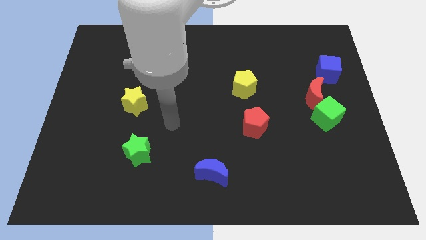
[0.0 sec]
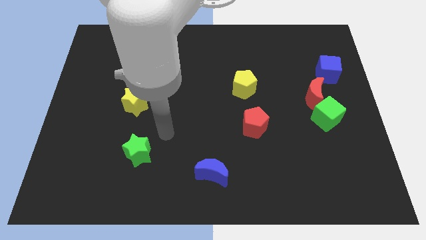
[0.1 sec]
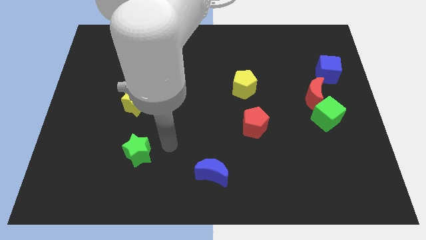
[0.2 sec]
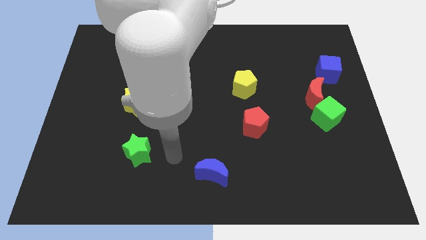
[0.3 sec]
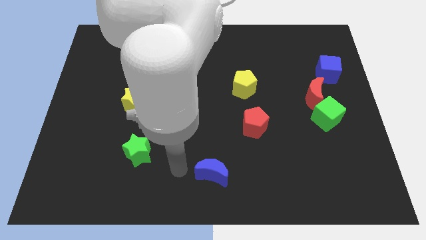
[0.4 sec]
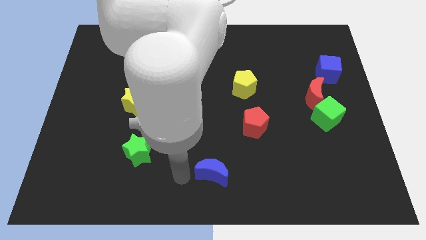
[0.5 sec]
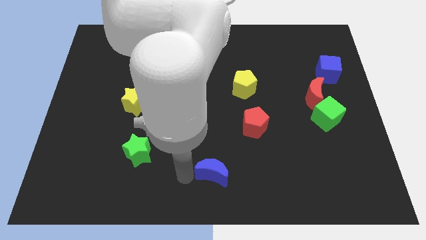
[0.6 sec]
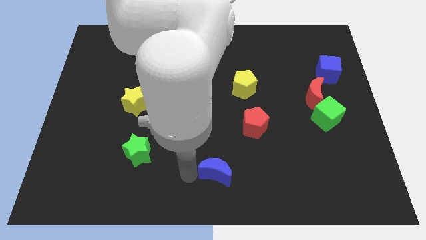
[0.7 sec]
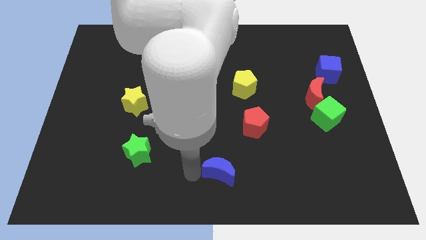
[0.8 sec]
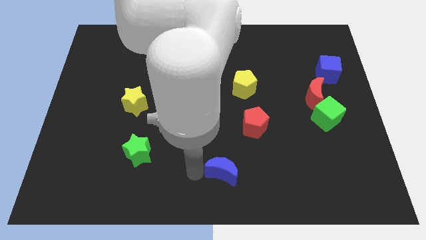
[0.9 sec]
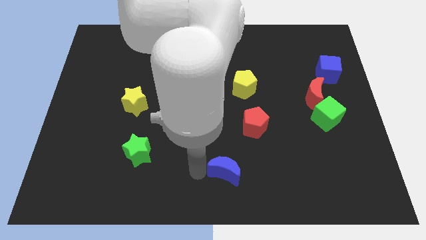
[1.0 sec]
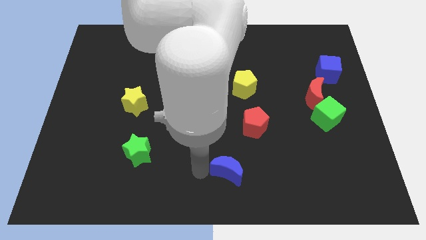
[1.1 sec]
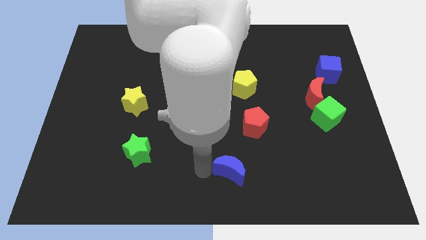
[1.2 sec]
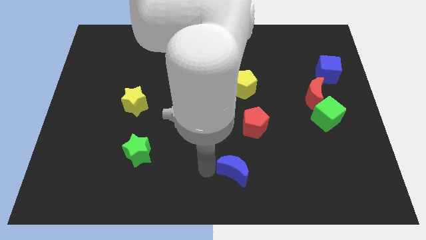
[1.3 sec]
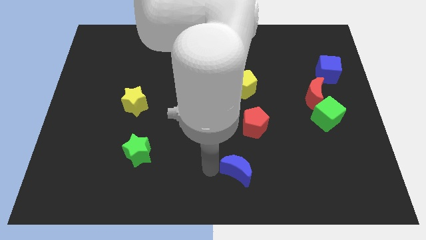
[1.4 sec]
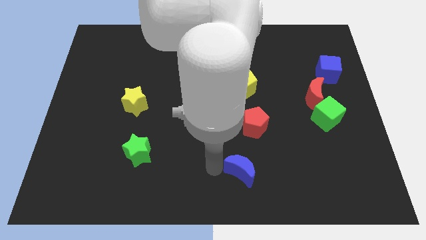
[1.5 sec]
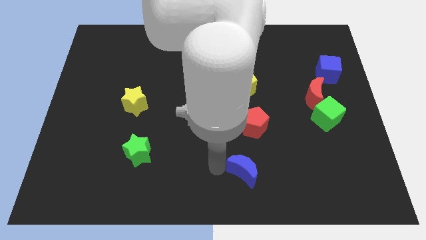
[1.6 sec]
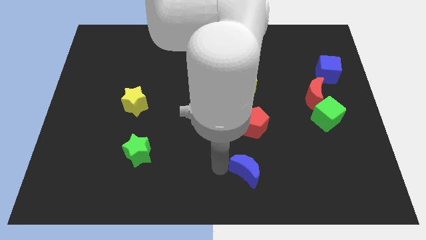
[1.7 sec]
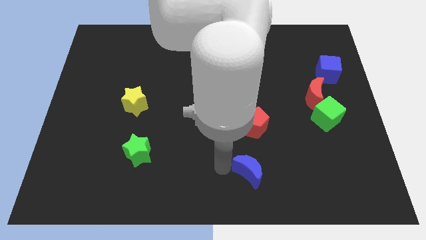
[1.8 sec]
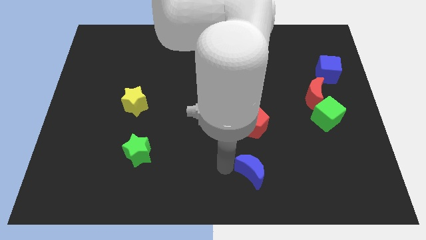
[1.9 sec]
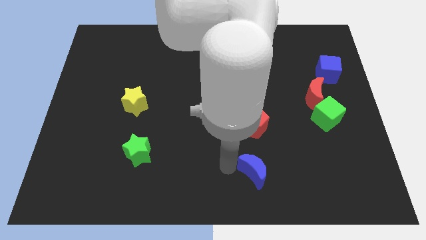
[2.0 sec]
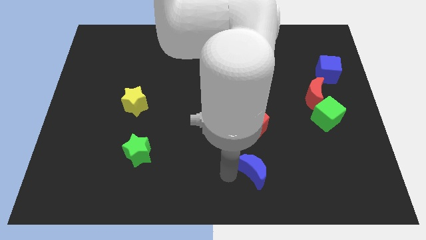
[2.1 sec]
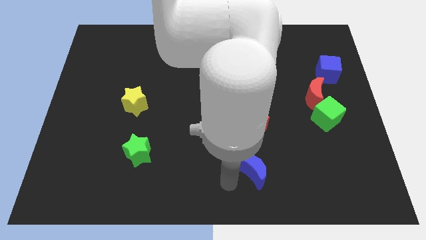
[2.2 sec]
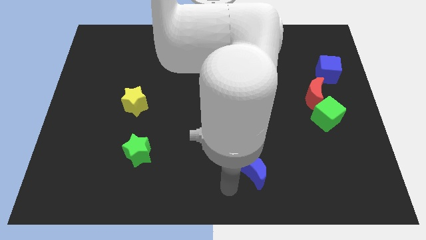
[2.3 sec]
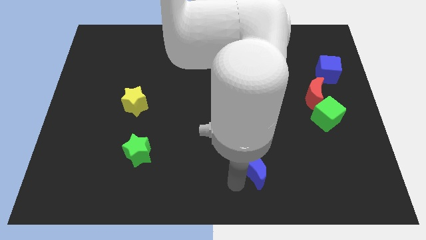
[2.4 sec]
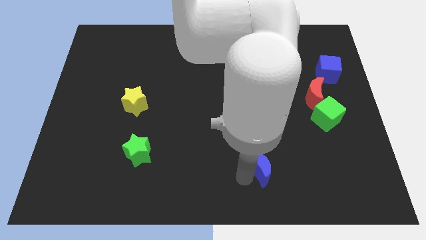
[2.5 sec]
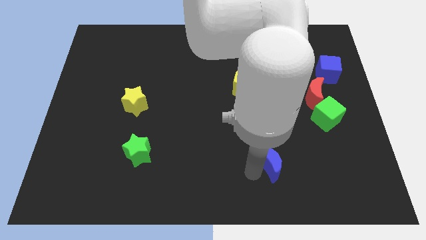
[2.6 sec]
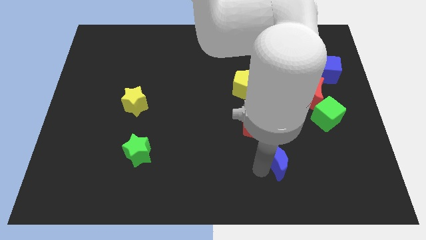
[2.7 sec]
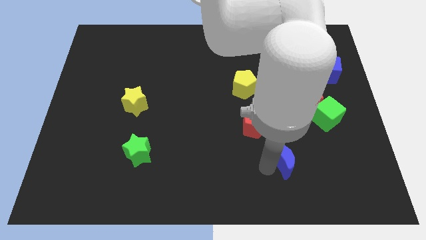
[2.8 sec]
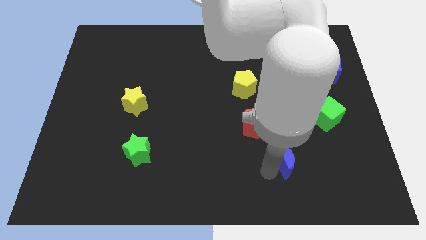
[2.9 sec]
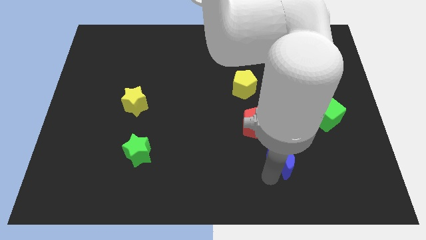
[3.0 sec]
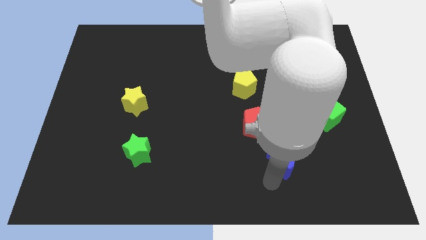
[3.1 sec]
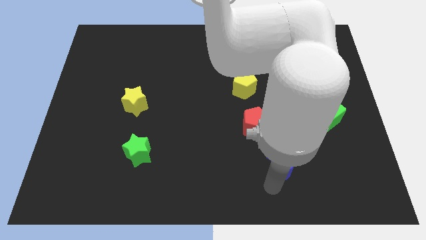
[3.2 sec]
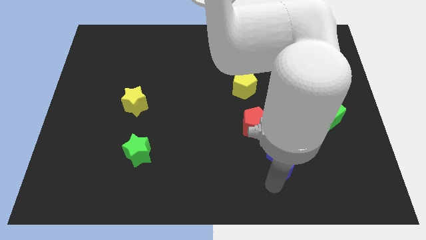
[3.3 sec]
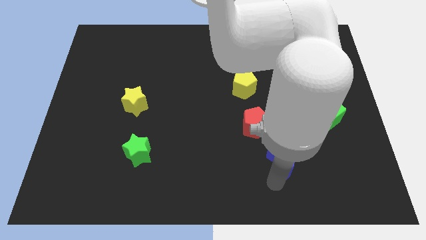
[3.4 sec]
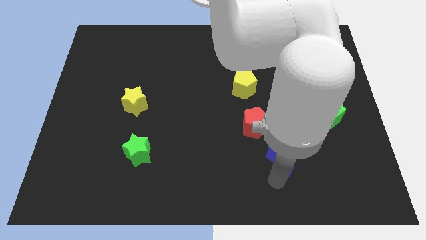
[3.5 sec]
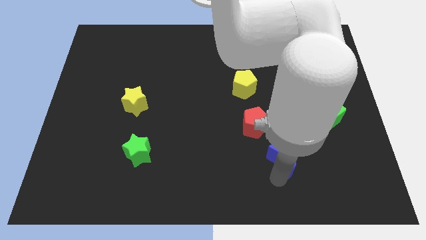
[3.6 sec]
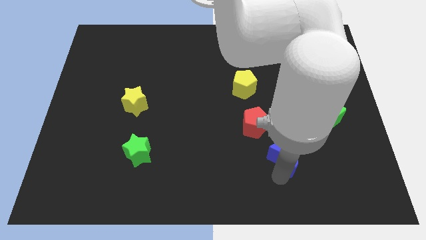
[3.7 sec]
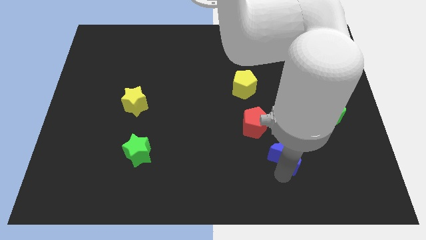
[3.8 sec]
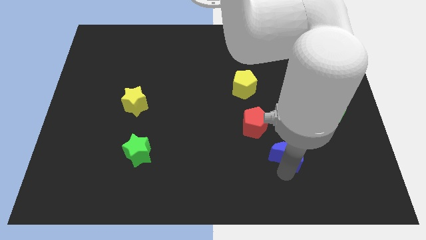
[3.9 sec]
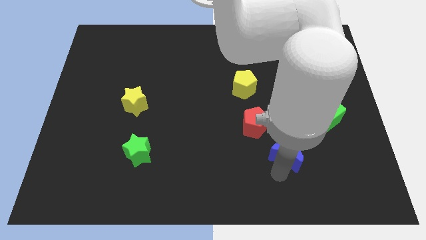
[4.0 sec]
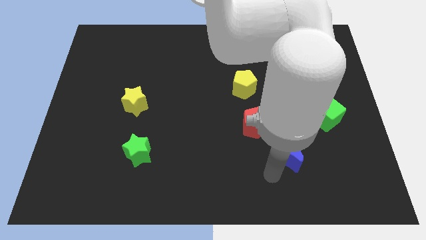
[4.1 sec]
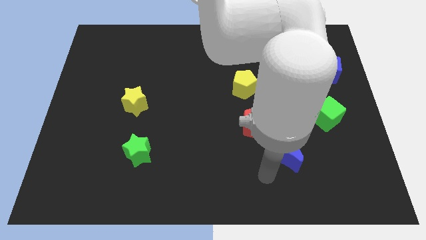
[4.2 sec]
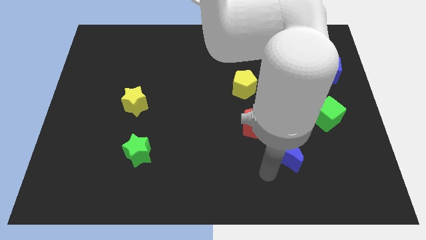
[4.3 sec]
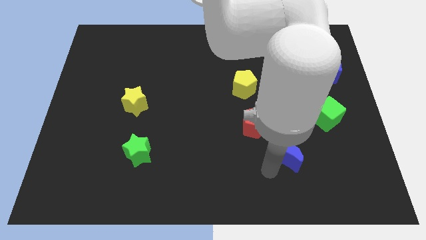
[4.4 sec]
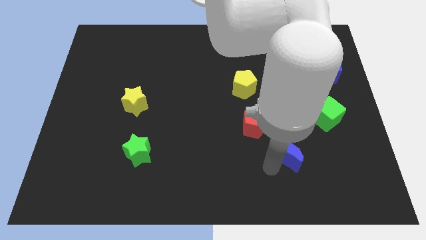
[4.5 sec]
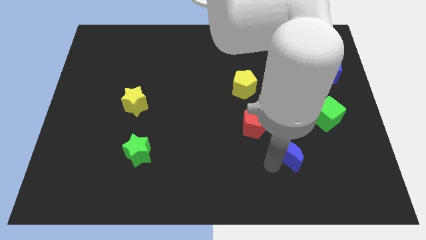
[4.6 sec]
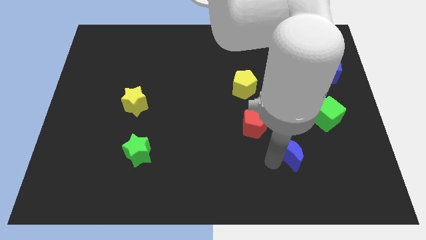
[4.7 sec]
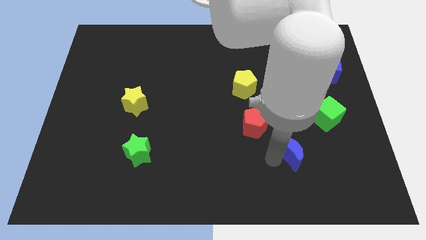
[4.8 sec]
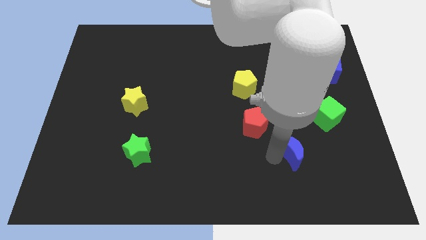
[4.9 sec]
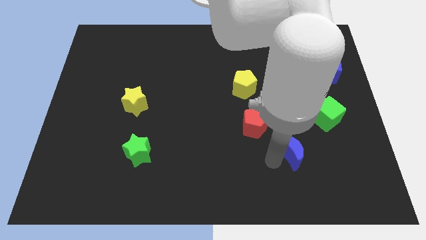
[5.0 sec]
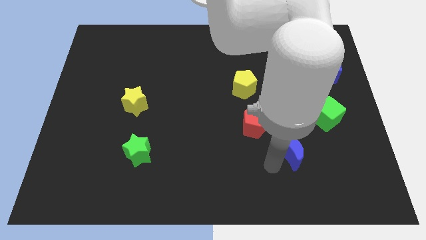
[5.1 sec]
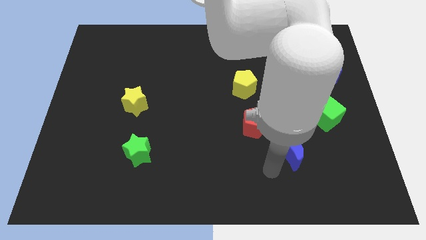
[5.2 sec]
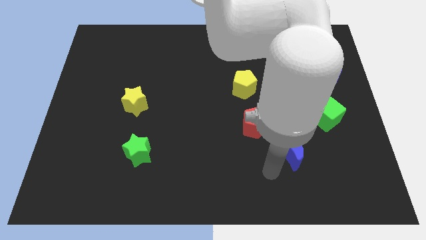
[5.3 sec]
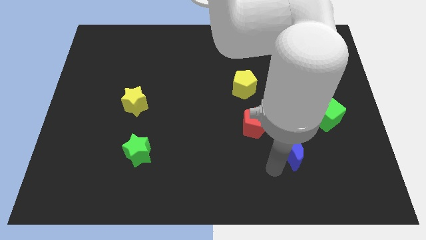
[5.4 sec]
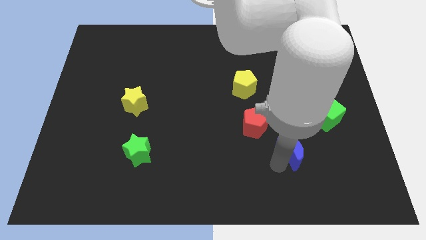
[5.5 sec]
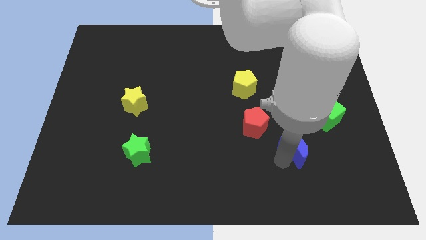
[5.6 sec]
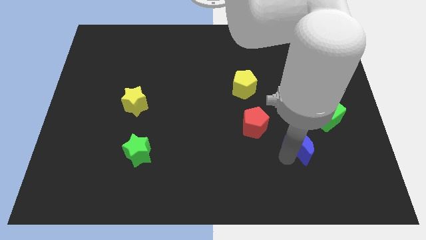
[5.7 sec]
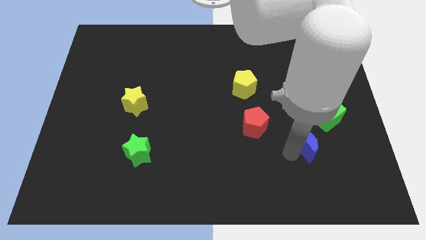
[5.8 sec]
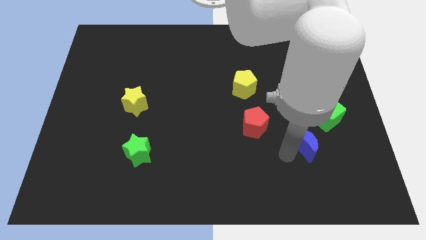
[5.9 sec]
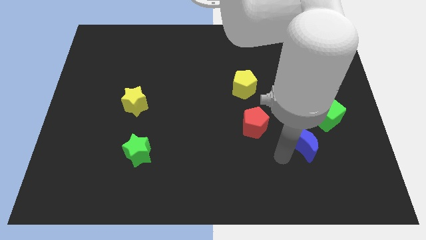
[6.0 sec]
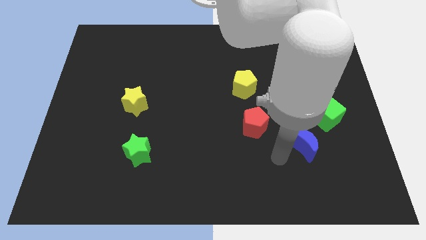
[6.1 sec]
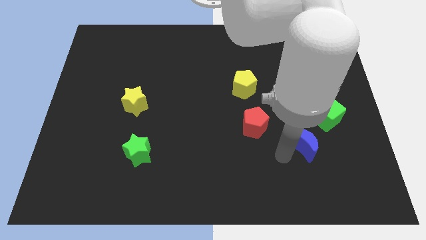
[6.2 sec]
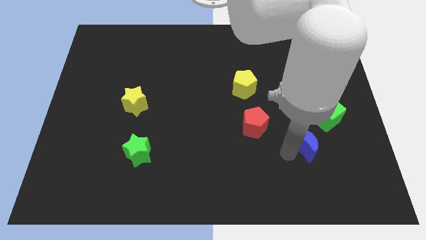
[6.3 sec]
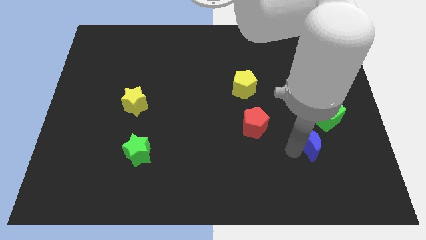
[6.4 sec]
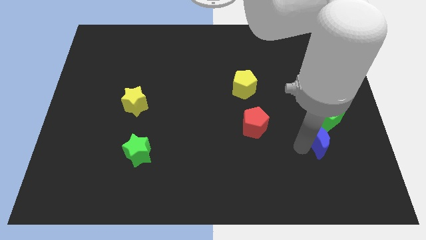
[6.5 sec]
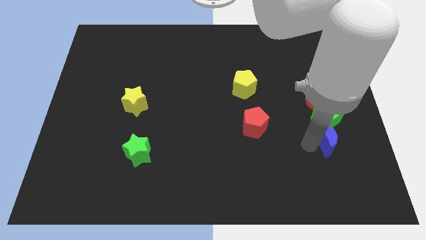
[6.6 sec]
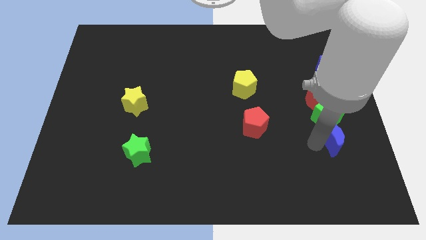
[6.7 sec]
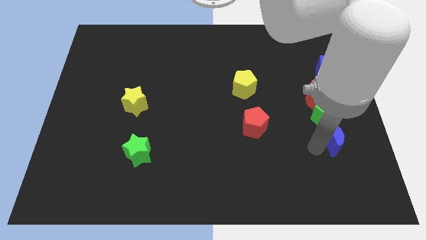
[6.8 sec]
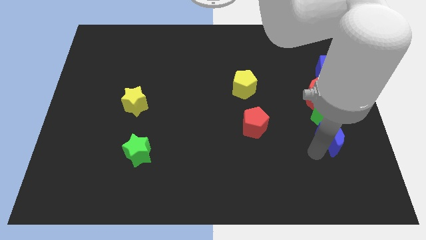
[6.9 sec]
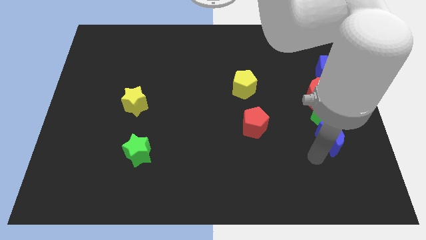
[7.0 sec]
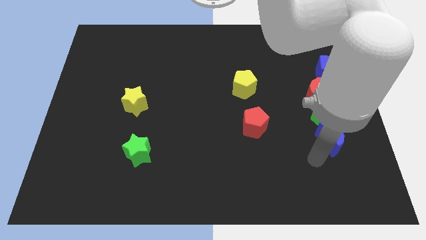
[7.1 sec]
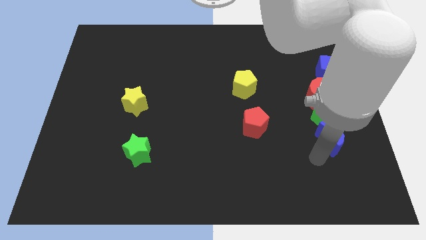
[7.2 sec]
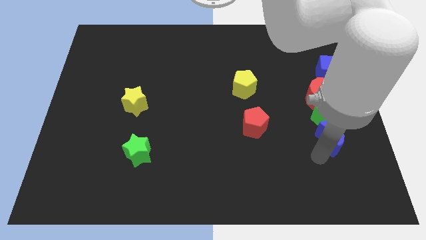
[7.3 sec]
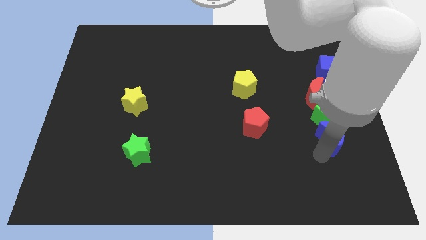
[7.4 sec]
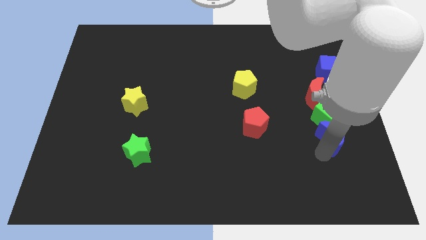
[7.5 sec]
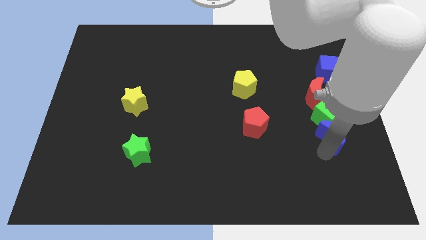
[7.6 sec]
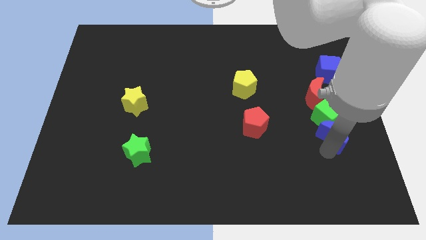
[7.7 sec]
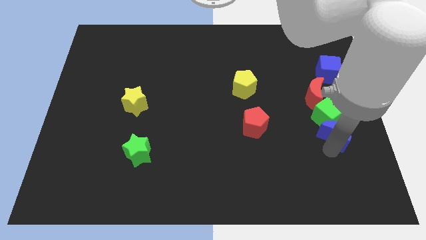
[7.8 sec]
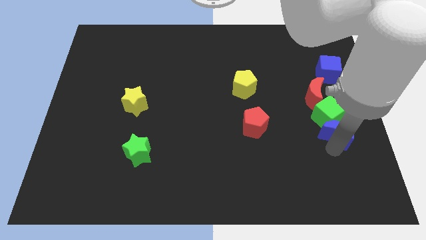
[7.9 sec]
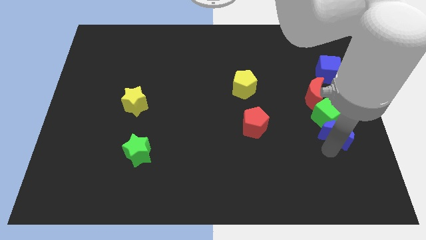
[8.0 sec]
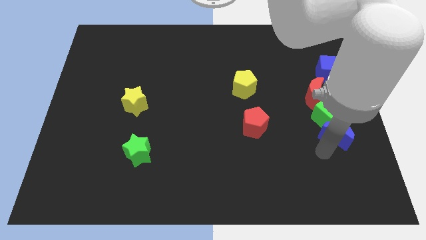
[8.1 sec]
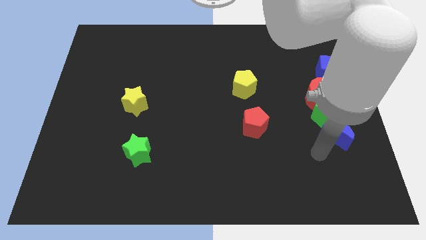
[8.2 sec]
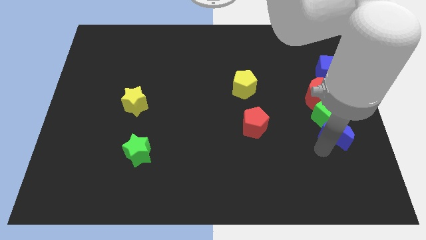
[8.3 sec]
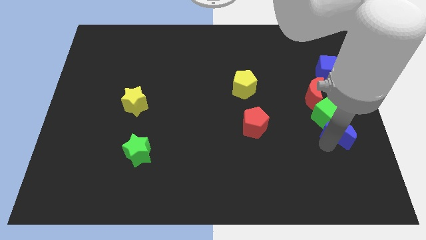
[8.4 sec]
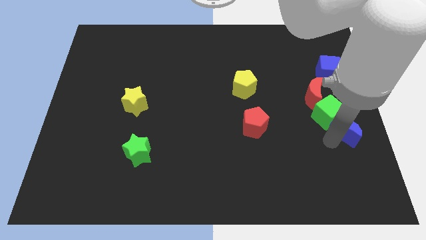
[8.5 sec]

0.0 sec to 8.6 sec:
push the blue moon to the center right
